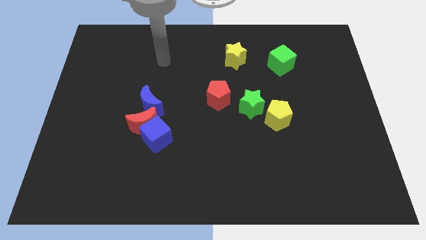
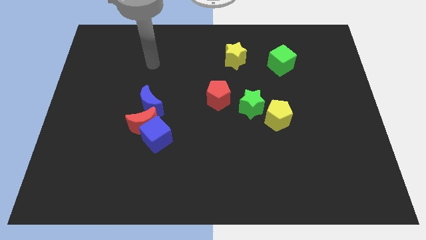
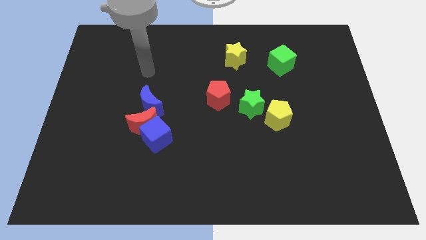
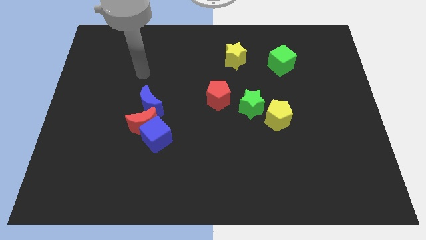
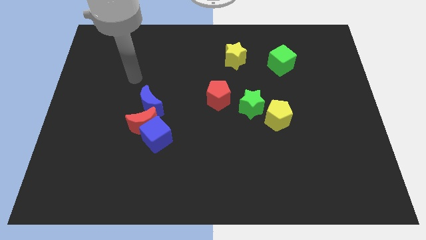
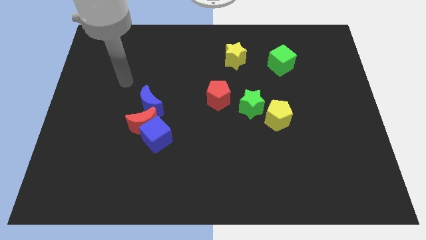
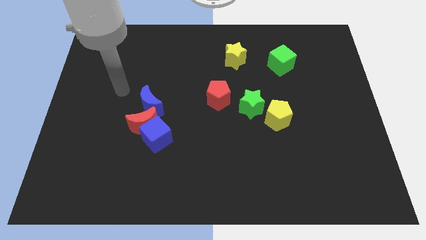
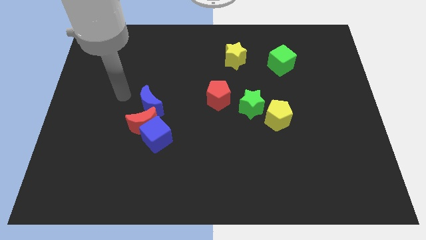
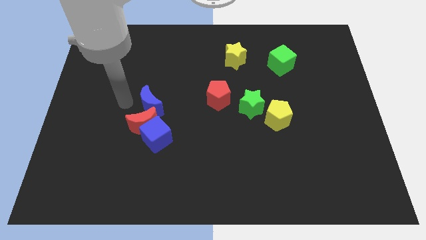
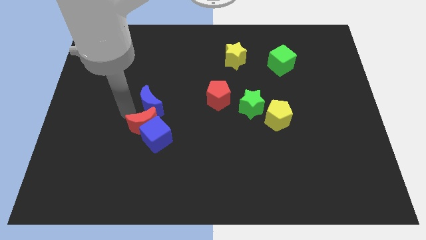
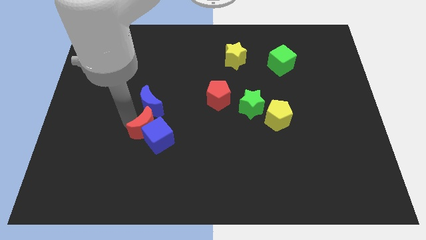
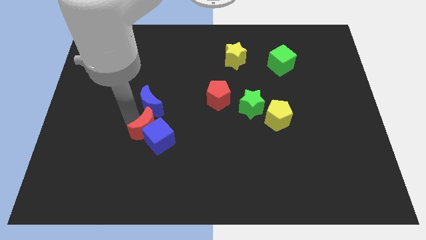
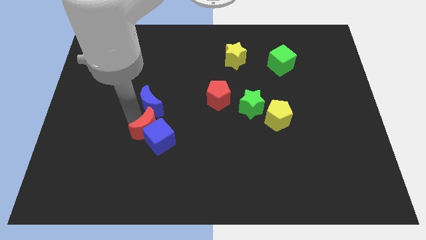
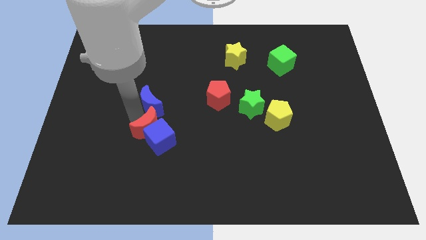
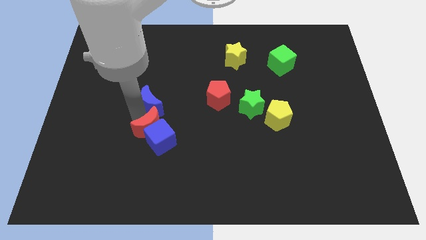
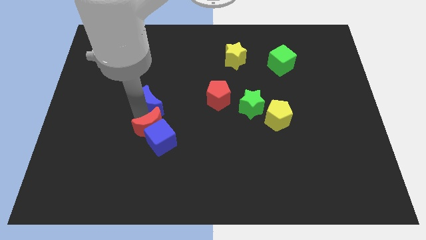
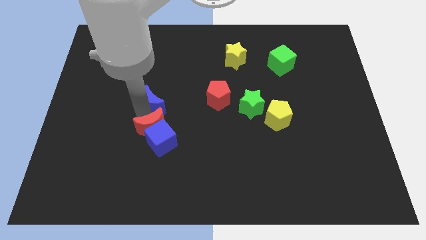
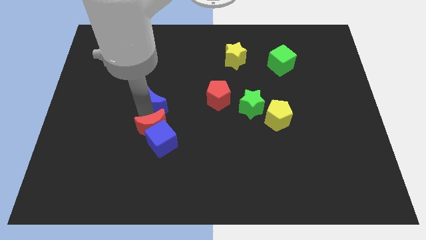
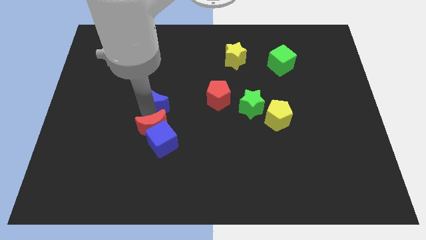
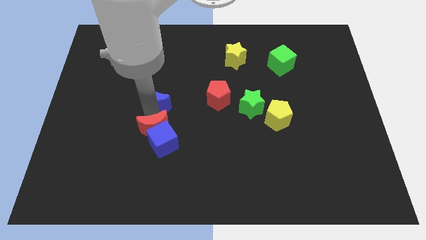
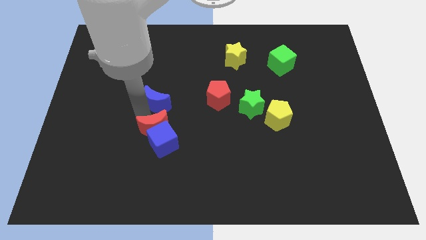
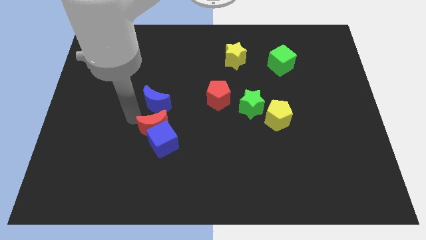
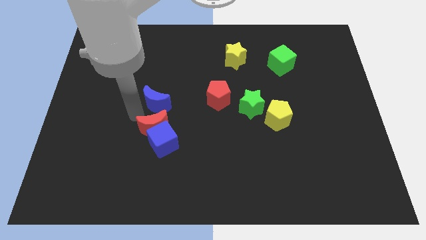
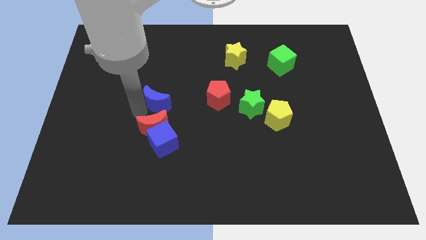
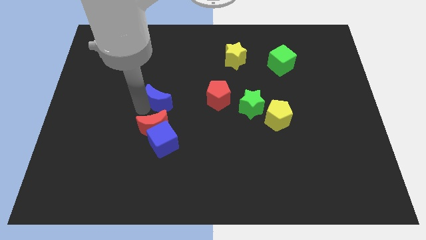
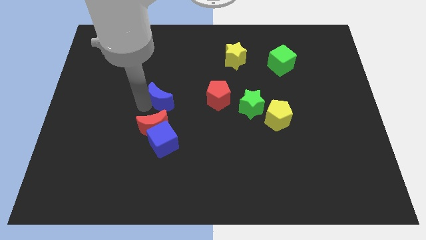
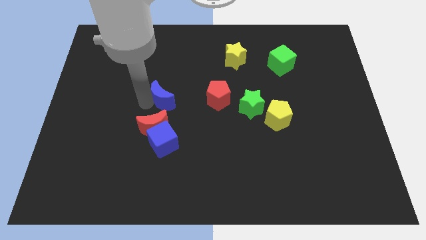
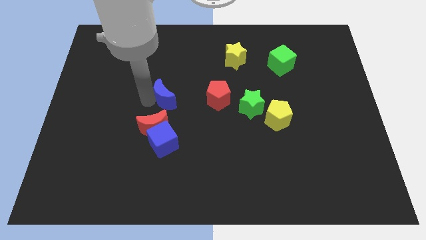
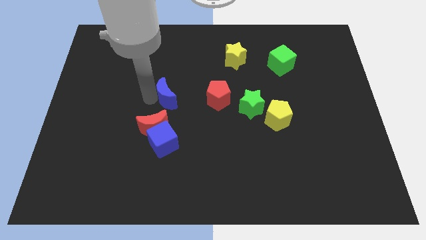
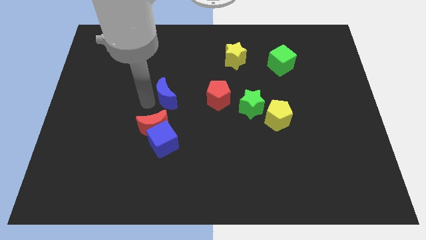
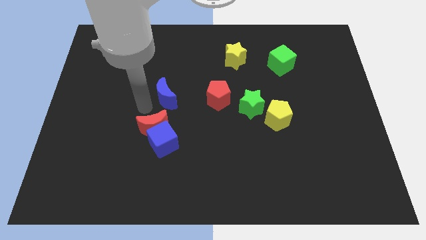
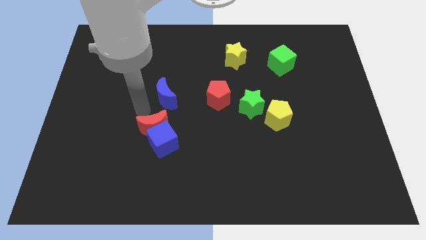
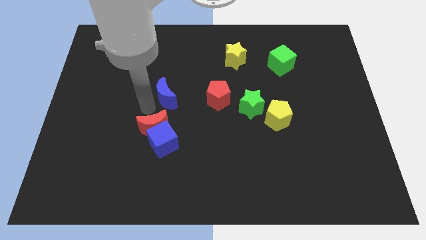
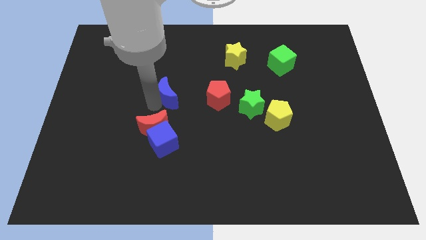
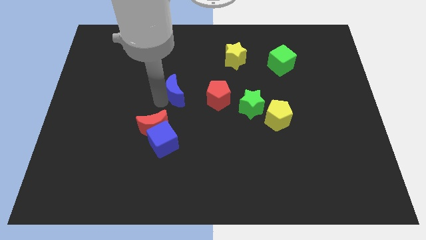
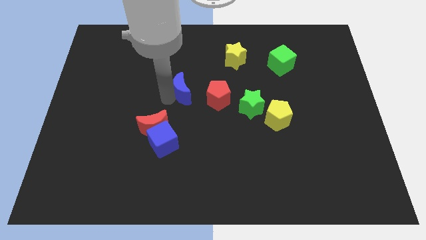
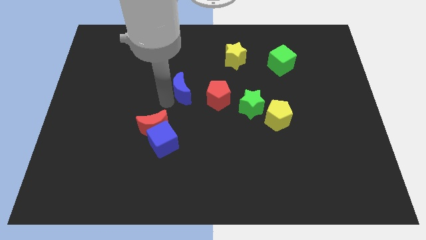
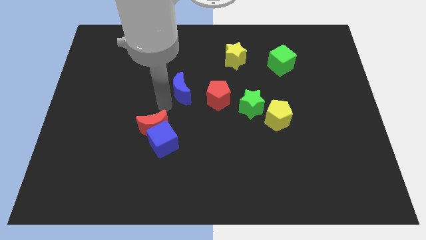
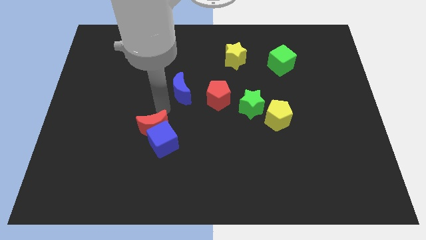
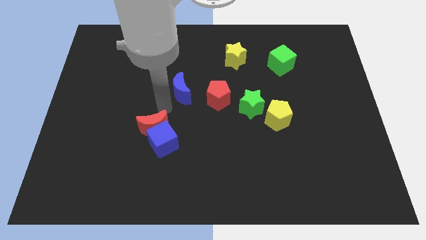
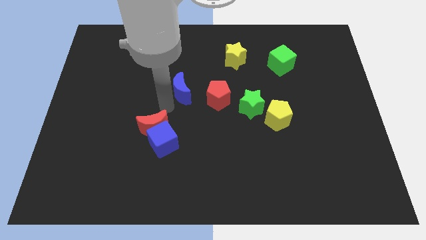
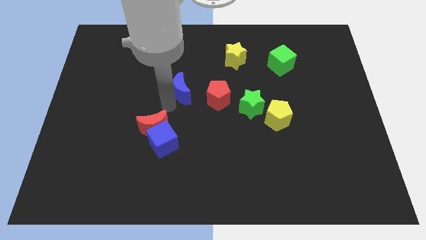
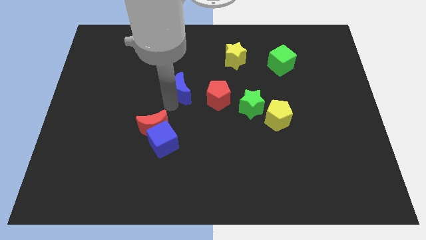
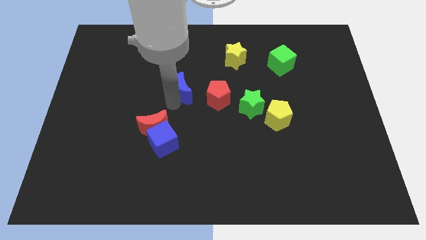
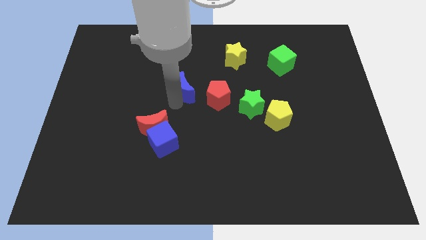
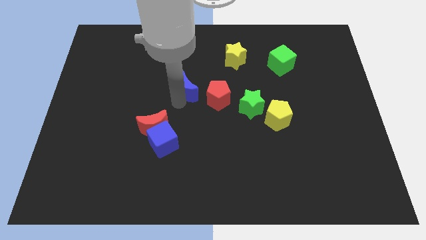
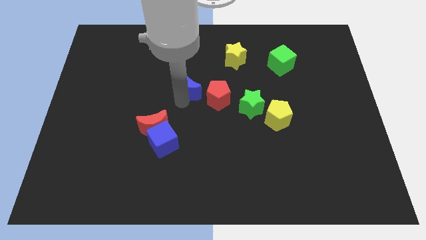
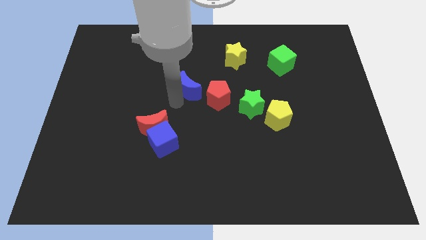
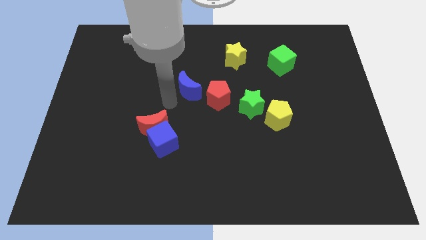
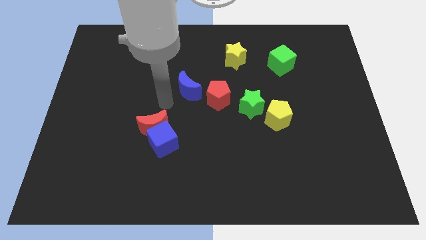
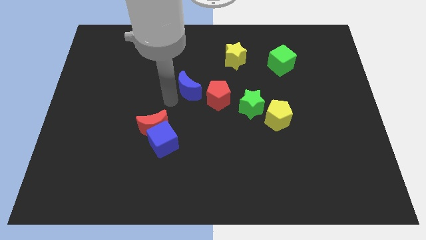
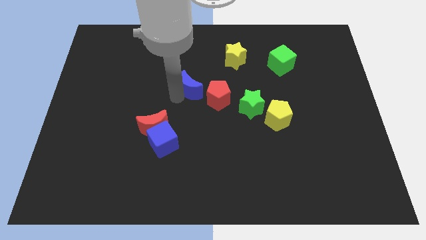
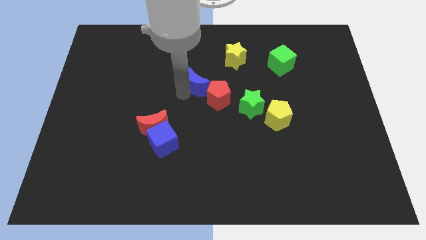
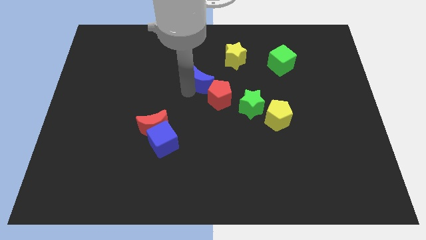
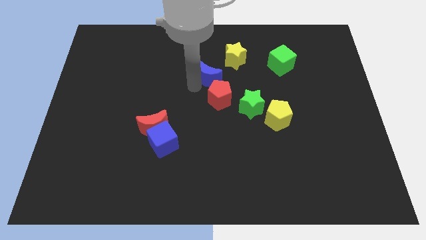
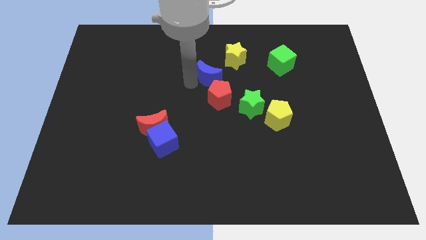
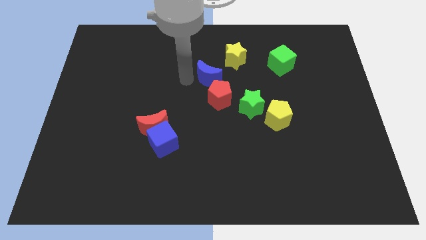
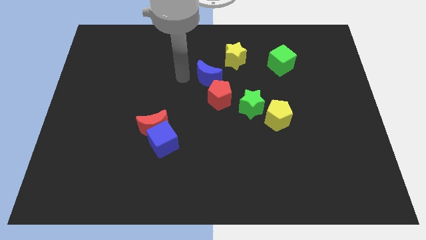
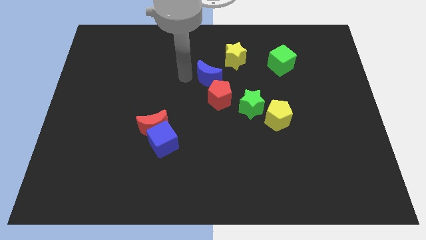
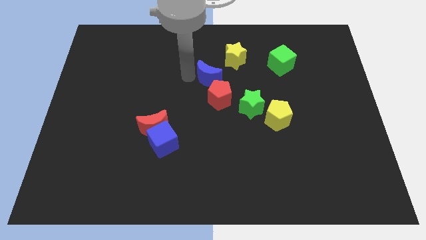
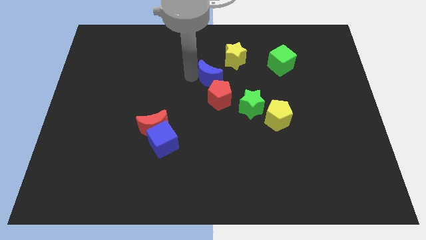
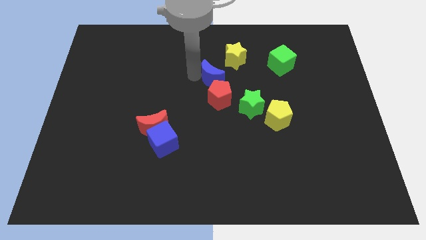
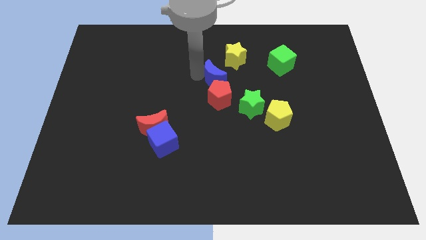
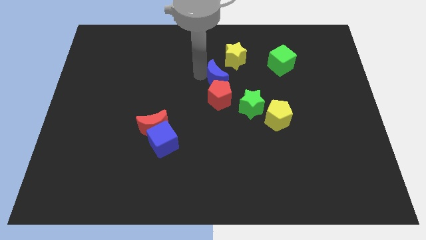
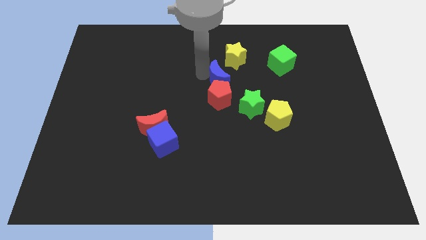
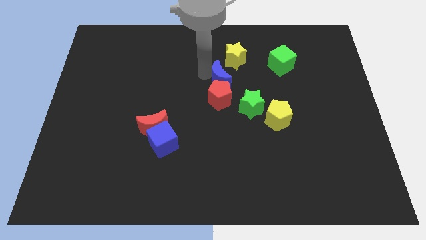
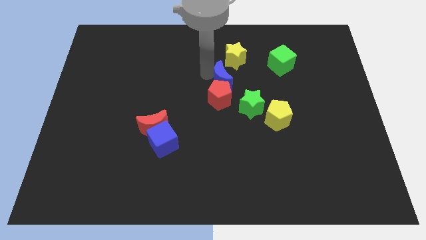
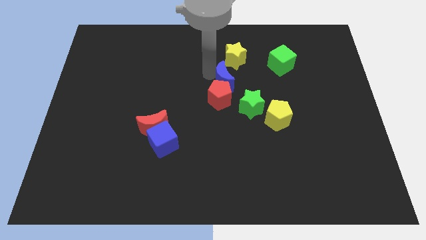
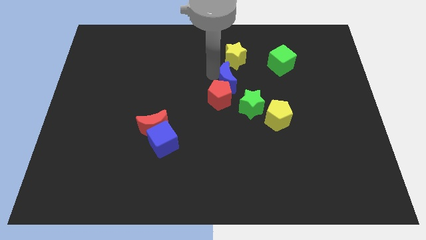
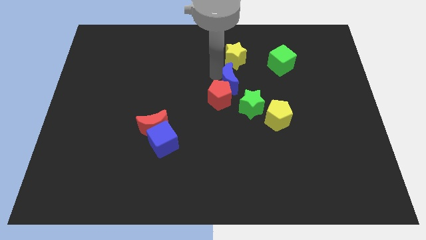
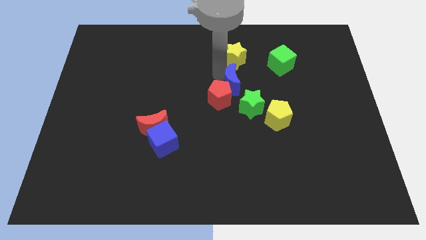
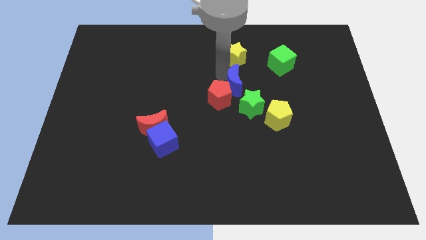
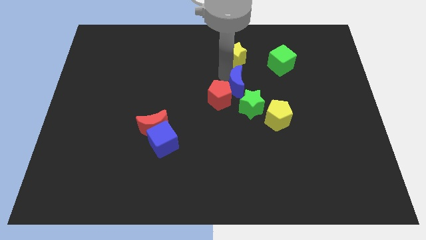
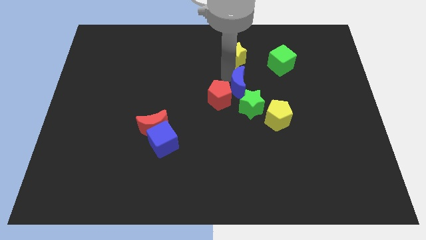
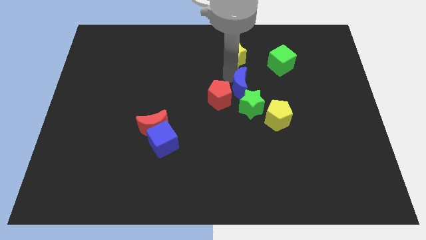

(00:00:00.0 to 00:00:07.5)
slide the blue moon to the right

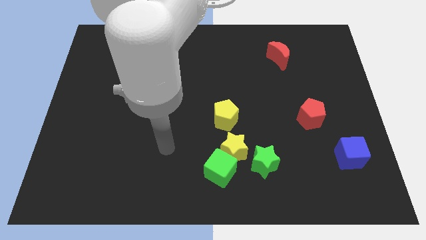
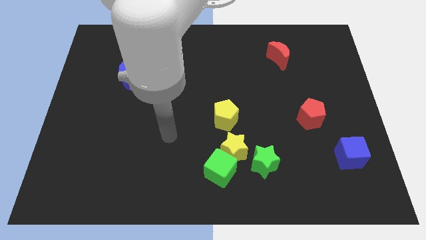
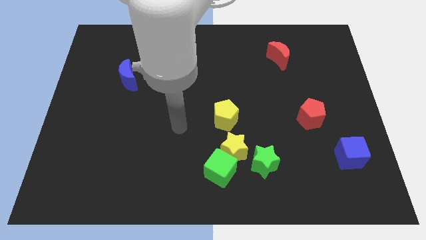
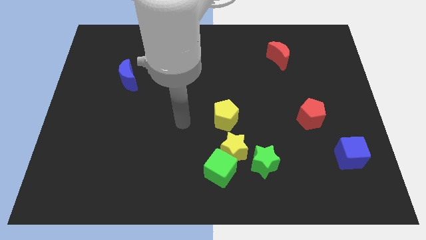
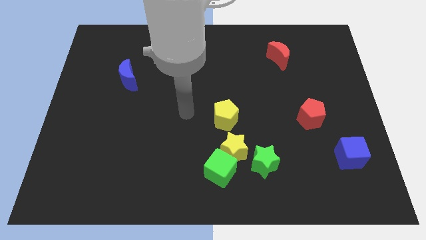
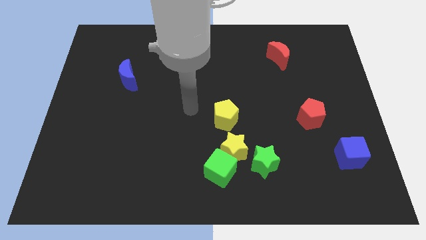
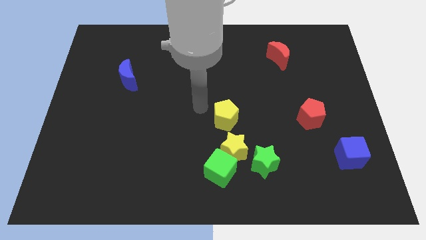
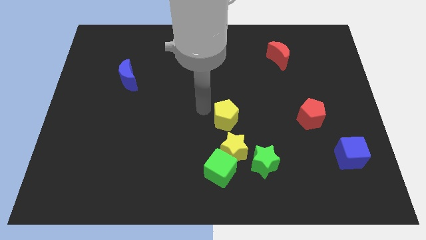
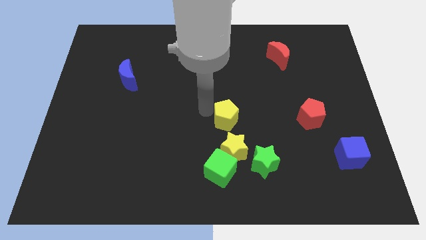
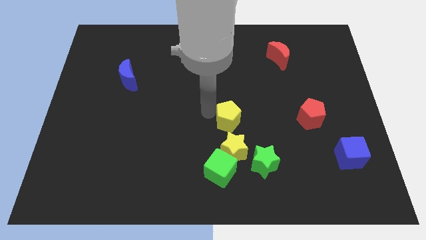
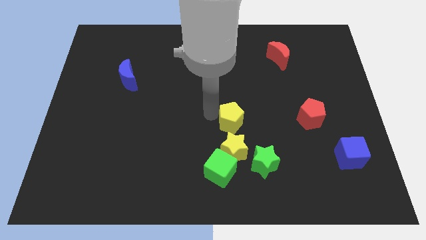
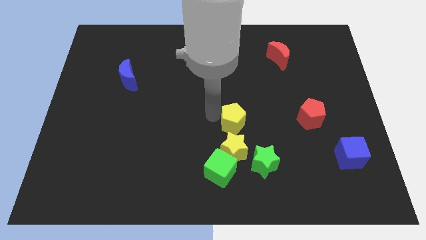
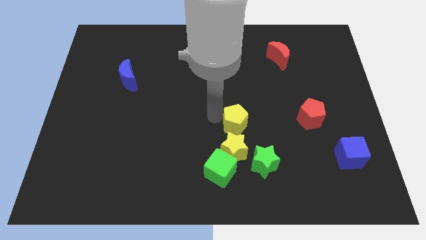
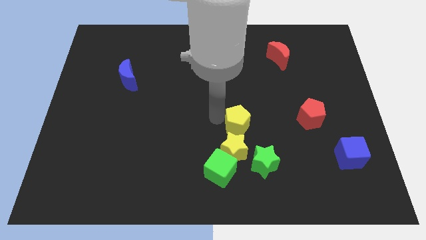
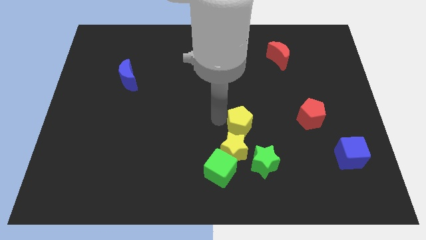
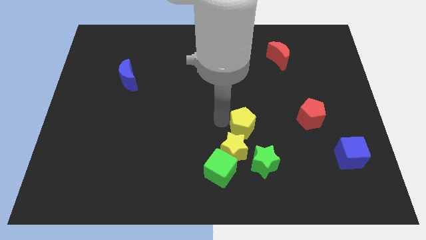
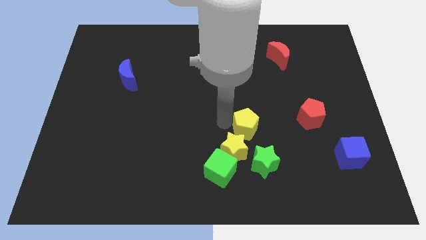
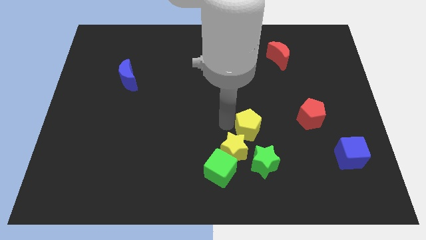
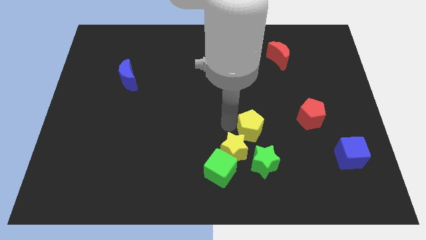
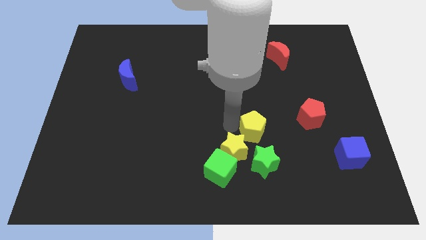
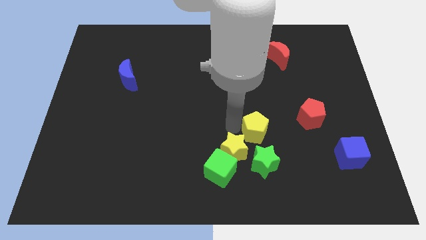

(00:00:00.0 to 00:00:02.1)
push the yellow pentagon diagonally down and to the right a bit
